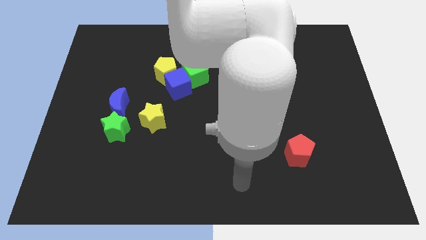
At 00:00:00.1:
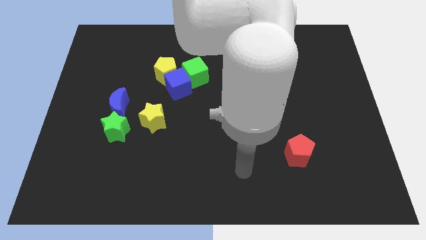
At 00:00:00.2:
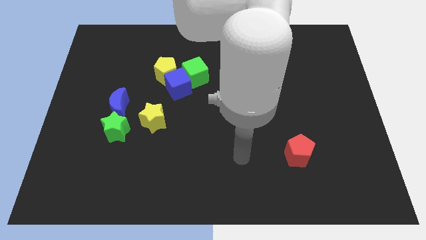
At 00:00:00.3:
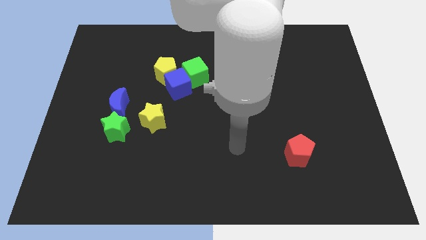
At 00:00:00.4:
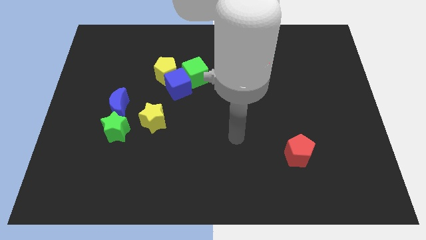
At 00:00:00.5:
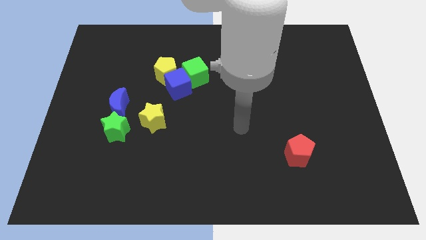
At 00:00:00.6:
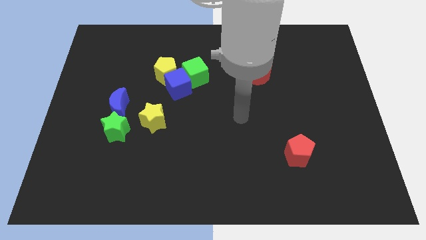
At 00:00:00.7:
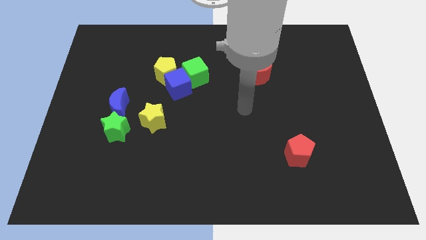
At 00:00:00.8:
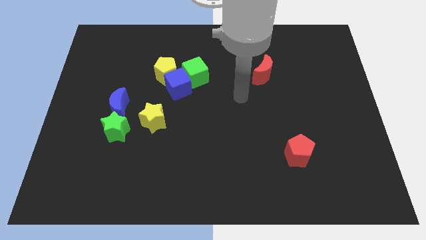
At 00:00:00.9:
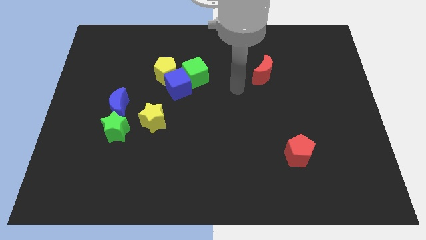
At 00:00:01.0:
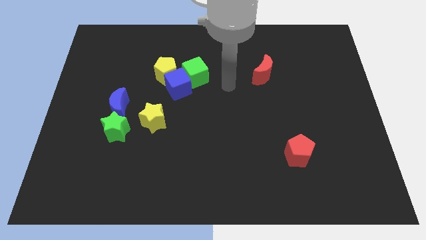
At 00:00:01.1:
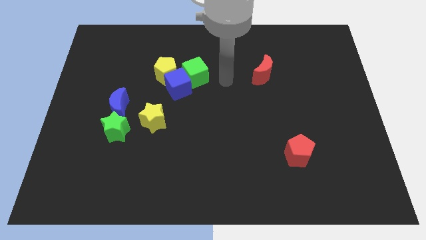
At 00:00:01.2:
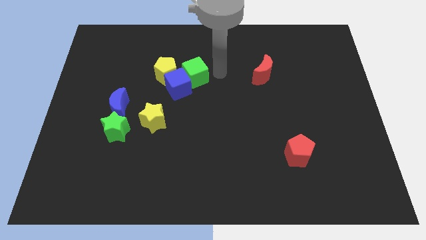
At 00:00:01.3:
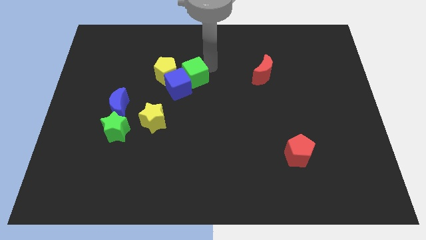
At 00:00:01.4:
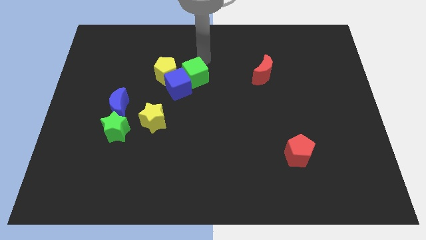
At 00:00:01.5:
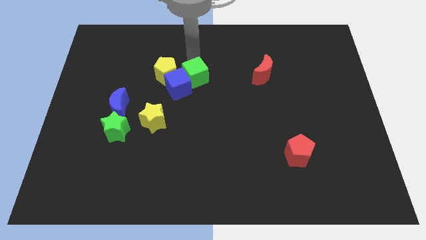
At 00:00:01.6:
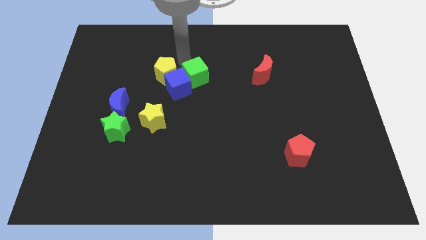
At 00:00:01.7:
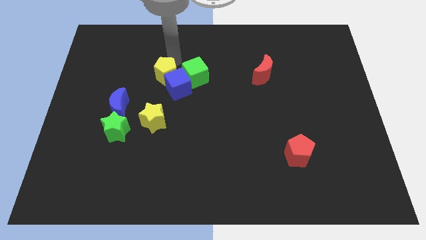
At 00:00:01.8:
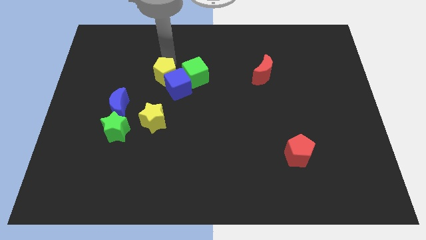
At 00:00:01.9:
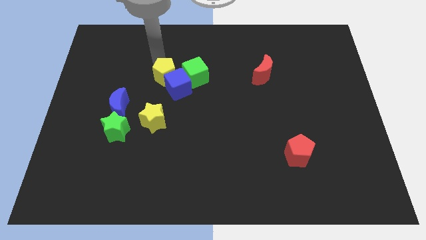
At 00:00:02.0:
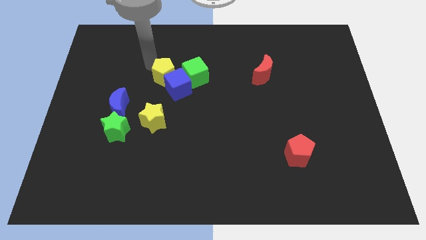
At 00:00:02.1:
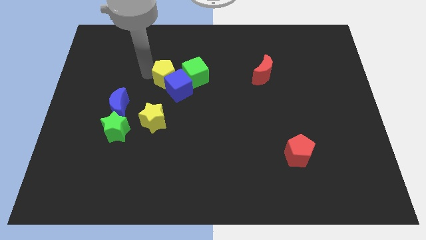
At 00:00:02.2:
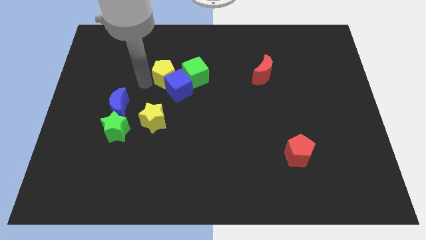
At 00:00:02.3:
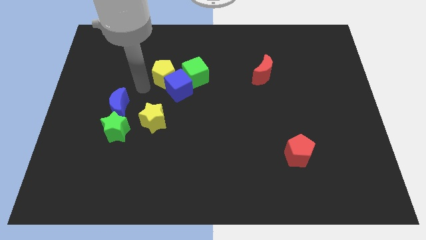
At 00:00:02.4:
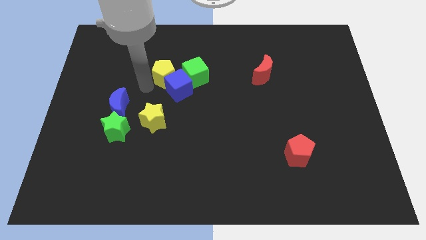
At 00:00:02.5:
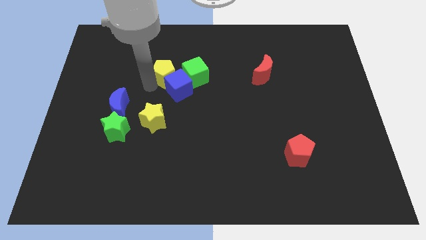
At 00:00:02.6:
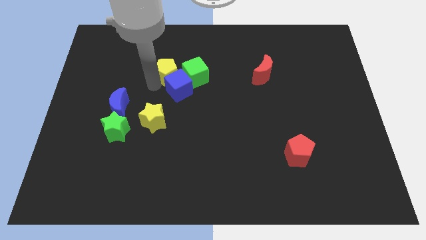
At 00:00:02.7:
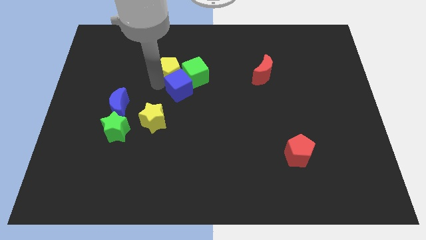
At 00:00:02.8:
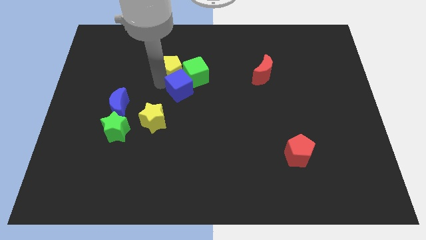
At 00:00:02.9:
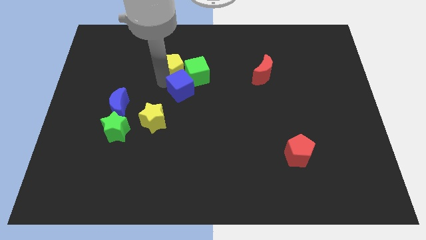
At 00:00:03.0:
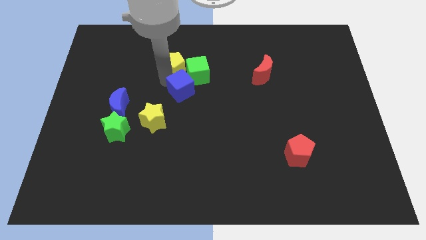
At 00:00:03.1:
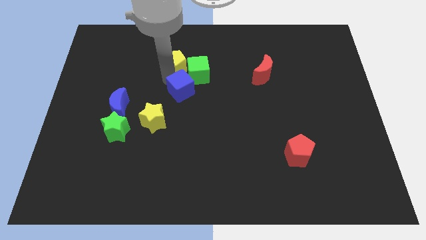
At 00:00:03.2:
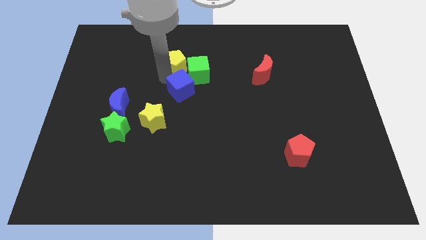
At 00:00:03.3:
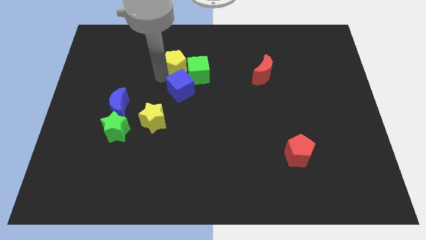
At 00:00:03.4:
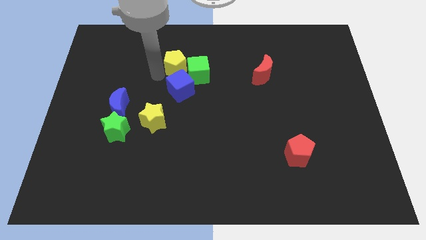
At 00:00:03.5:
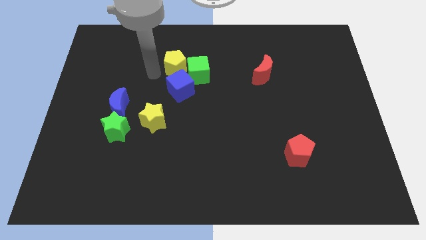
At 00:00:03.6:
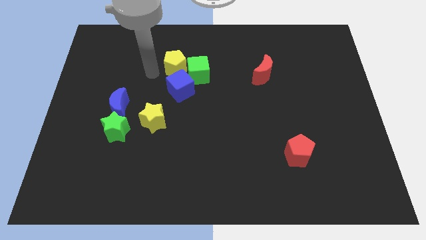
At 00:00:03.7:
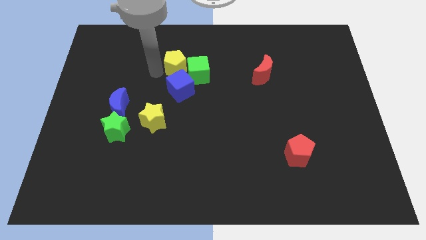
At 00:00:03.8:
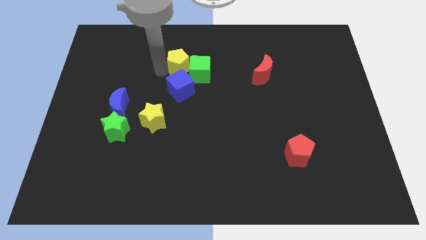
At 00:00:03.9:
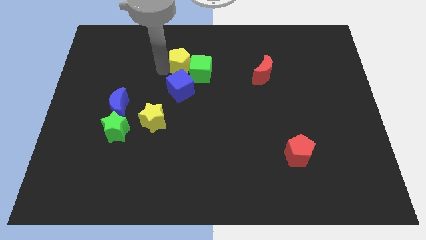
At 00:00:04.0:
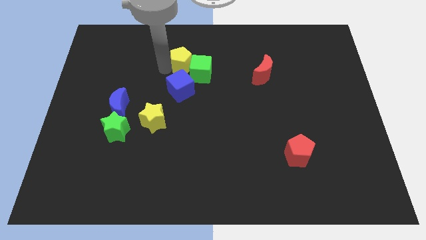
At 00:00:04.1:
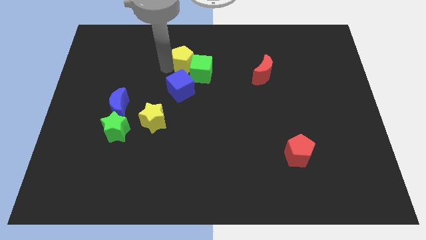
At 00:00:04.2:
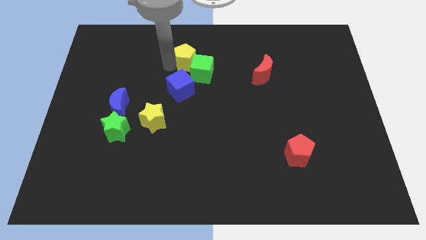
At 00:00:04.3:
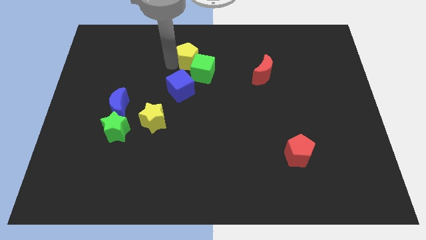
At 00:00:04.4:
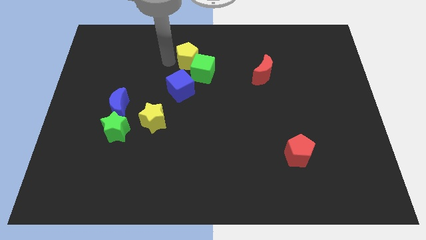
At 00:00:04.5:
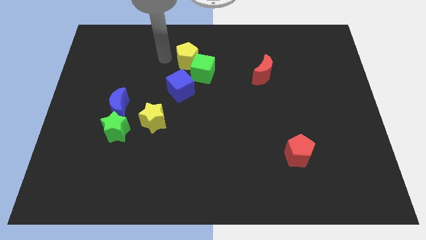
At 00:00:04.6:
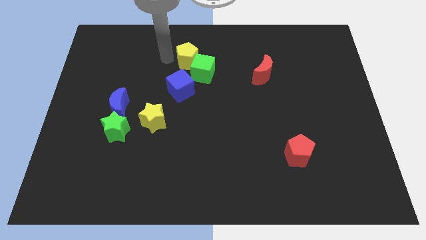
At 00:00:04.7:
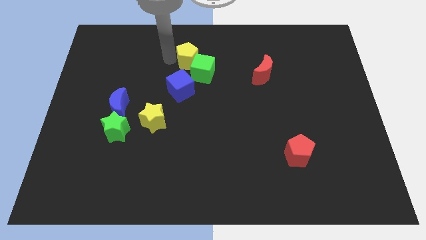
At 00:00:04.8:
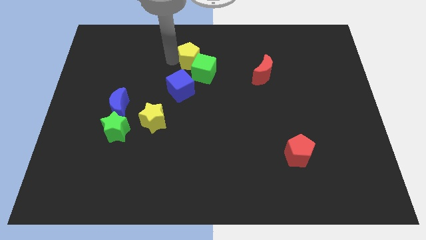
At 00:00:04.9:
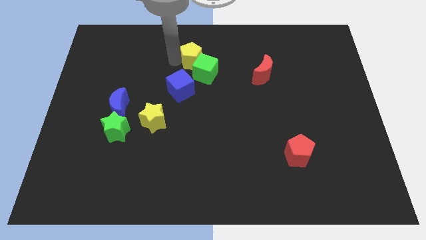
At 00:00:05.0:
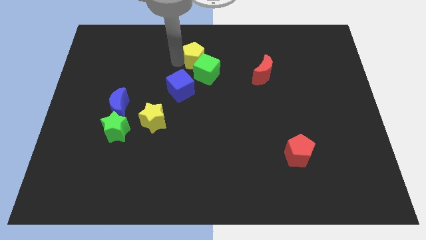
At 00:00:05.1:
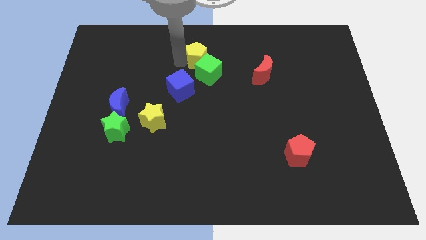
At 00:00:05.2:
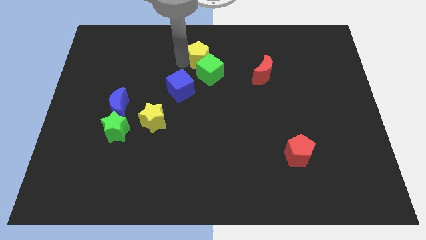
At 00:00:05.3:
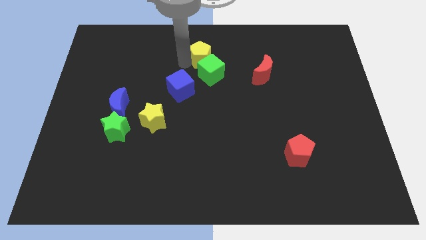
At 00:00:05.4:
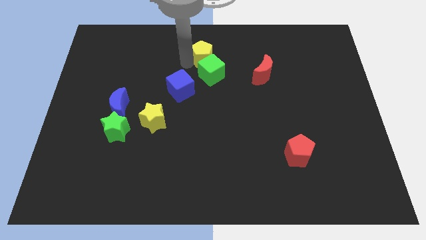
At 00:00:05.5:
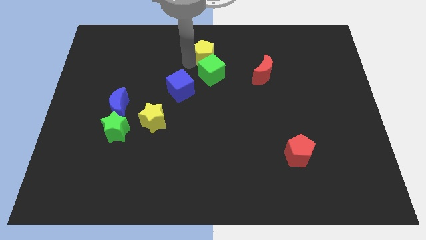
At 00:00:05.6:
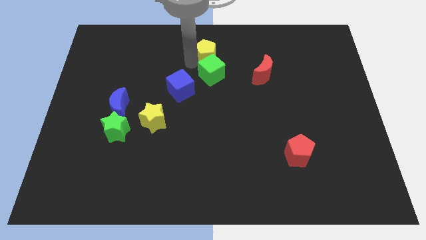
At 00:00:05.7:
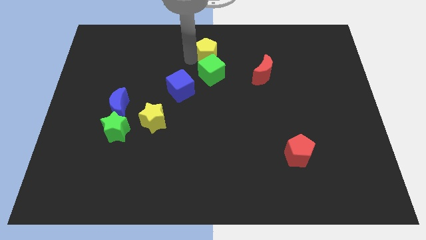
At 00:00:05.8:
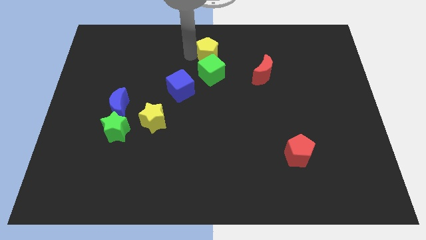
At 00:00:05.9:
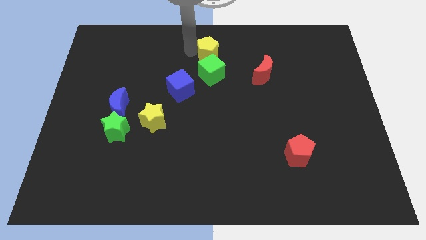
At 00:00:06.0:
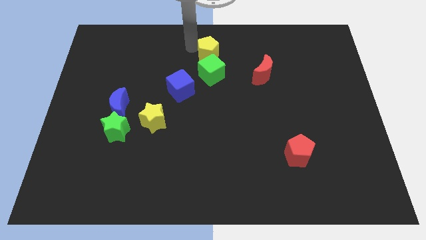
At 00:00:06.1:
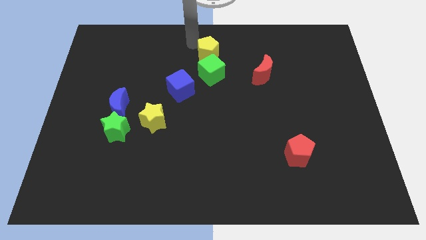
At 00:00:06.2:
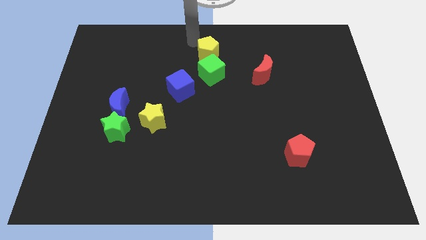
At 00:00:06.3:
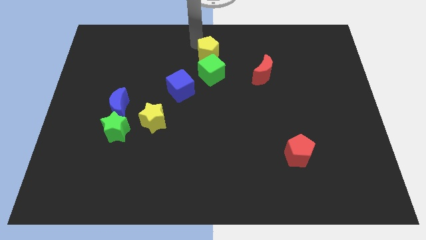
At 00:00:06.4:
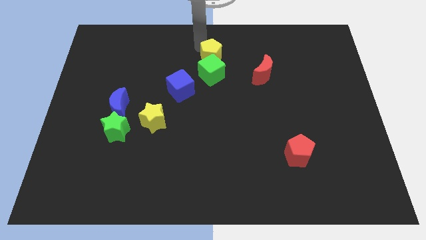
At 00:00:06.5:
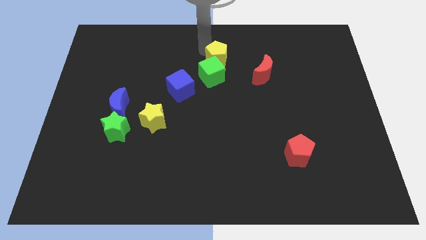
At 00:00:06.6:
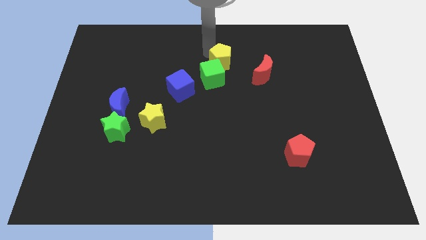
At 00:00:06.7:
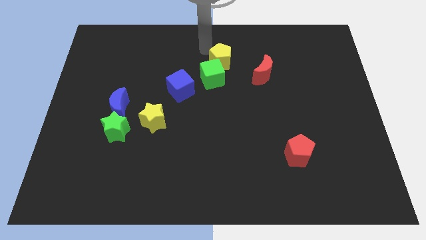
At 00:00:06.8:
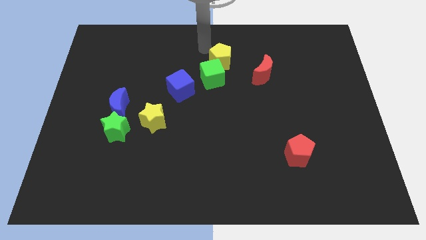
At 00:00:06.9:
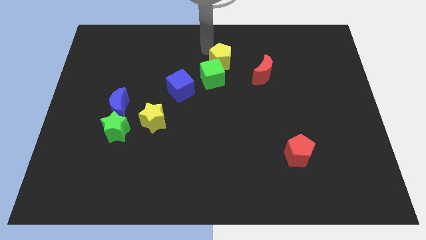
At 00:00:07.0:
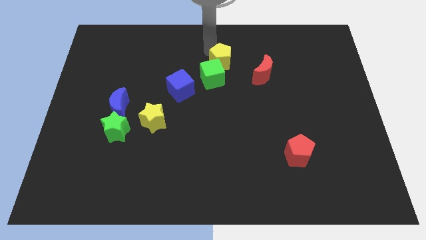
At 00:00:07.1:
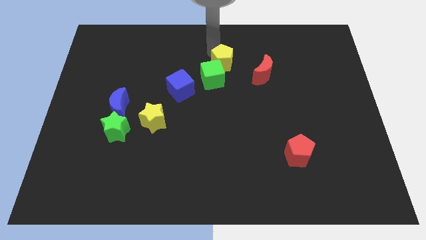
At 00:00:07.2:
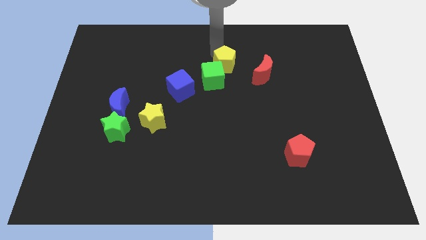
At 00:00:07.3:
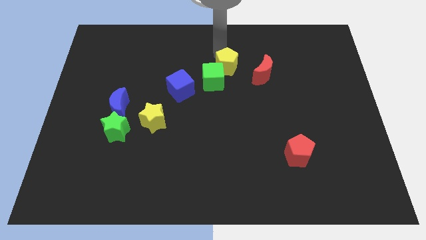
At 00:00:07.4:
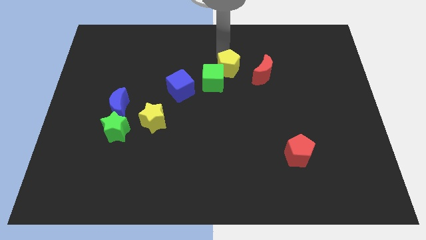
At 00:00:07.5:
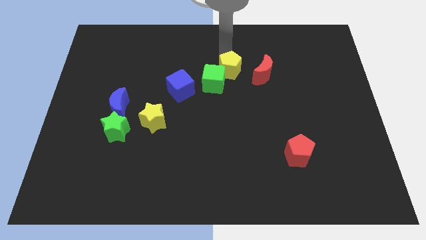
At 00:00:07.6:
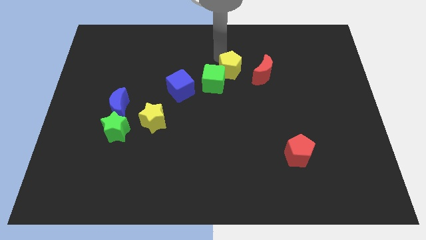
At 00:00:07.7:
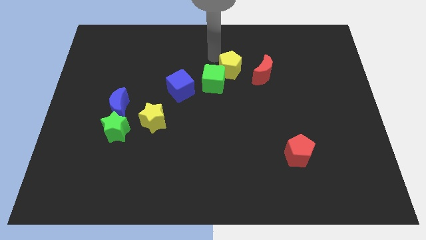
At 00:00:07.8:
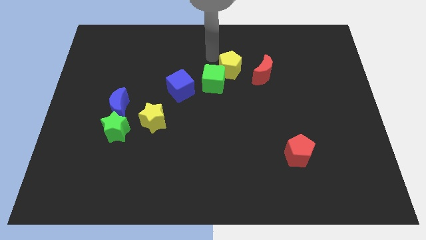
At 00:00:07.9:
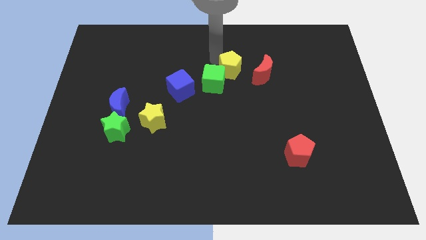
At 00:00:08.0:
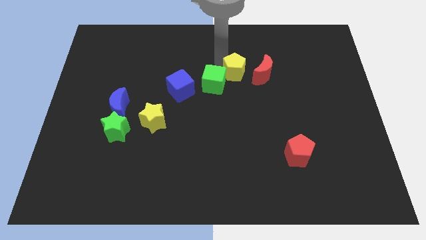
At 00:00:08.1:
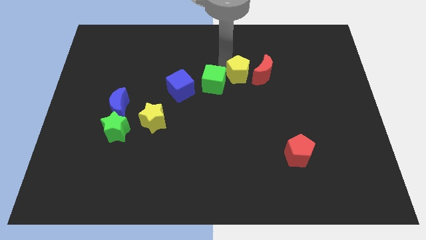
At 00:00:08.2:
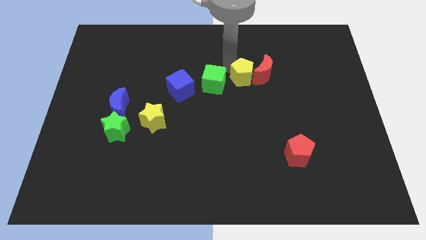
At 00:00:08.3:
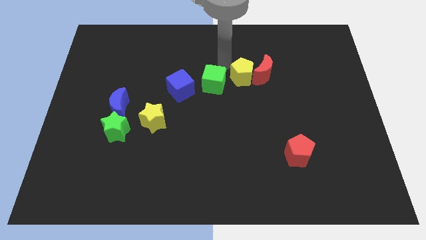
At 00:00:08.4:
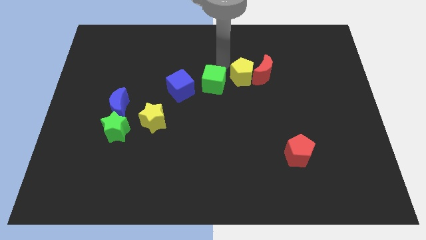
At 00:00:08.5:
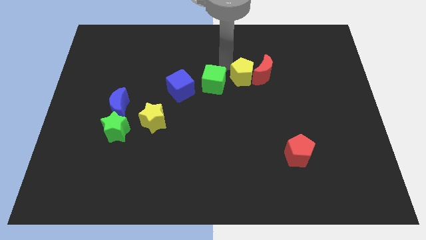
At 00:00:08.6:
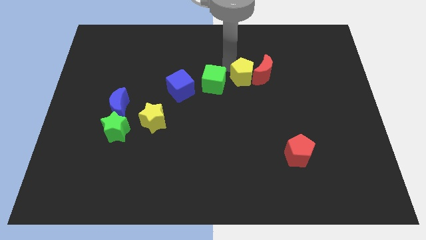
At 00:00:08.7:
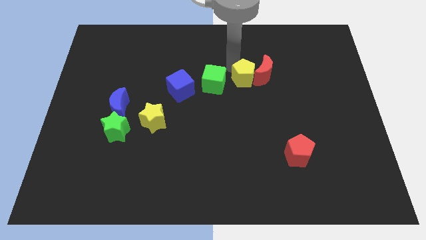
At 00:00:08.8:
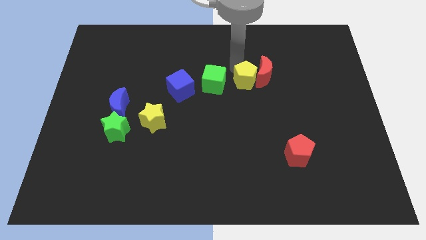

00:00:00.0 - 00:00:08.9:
move the yellow pentagon right
